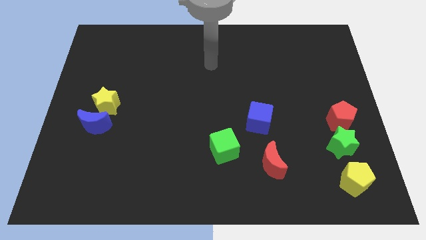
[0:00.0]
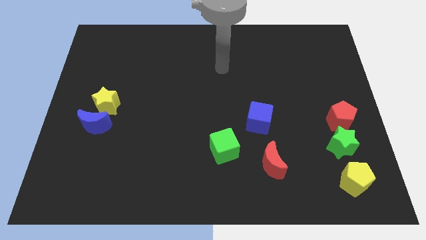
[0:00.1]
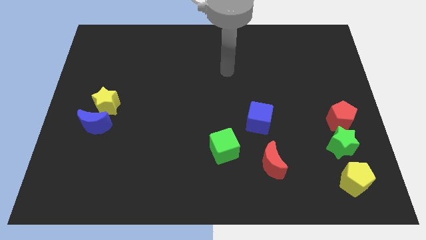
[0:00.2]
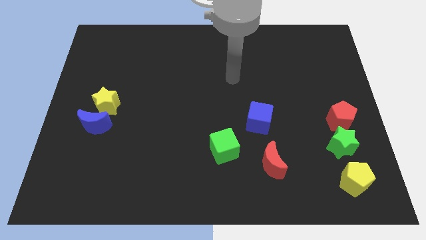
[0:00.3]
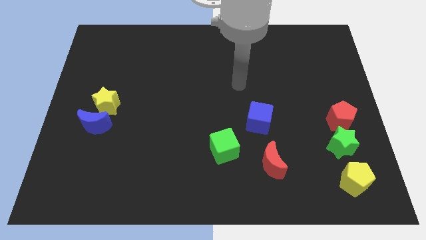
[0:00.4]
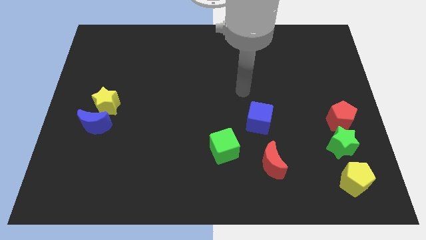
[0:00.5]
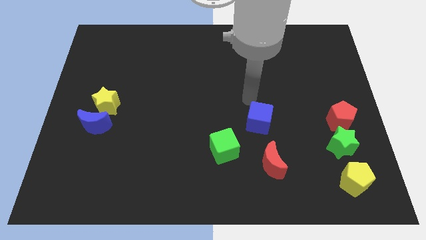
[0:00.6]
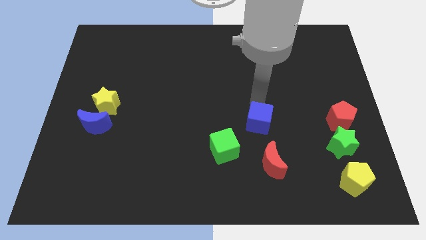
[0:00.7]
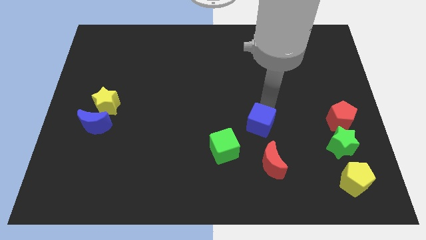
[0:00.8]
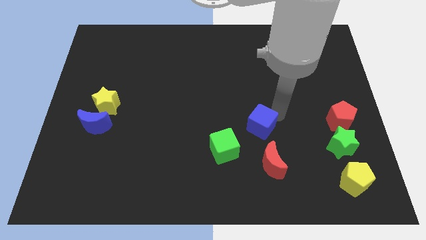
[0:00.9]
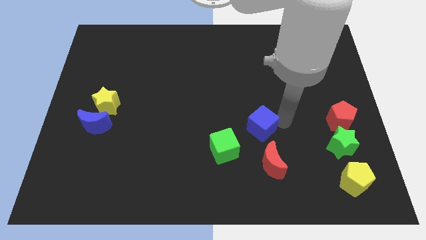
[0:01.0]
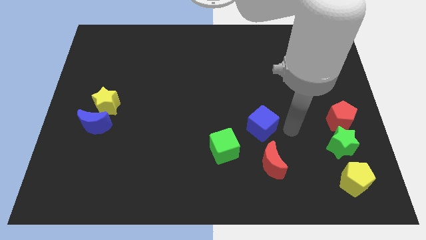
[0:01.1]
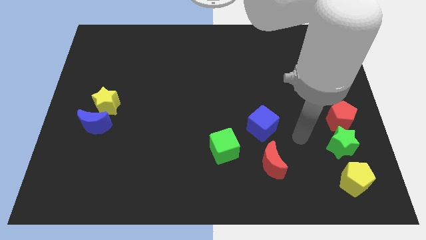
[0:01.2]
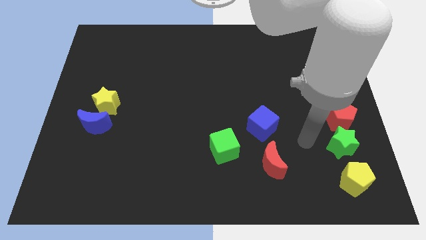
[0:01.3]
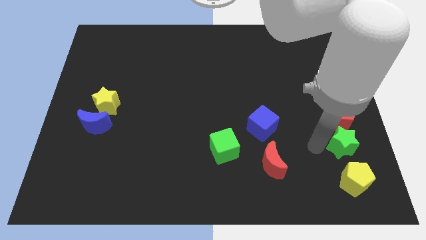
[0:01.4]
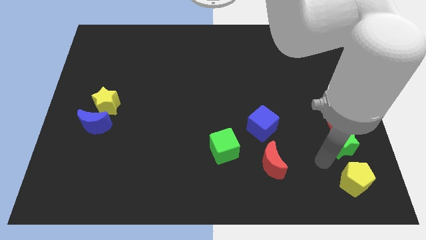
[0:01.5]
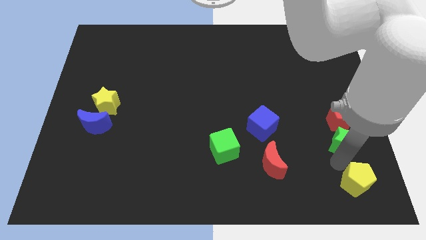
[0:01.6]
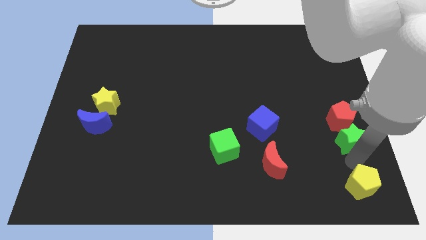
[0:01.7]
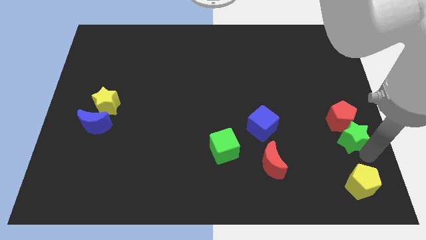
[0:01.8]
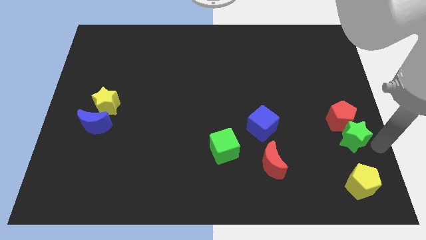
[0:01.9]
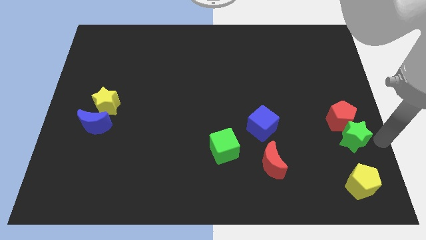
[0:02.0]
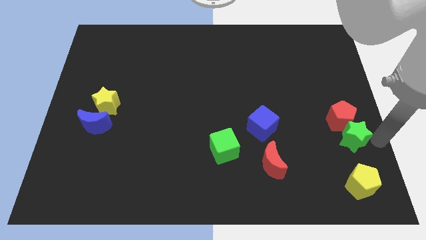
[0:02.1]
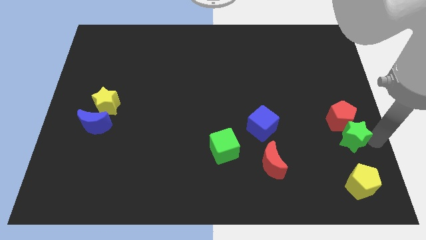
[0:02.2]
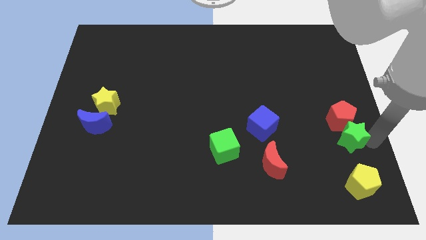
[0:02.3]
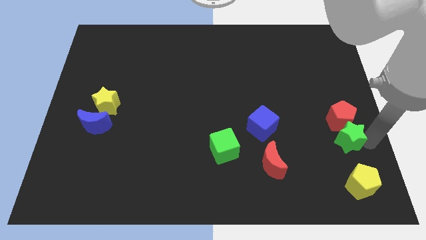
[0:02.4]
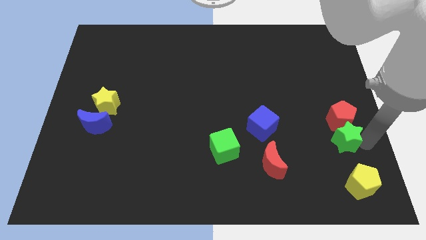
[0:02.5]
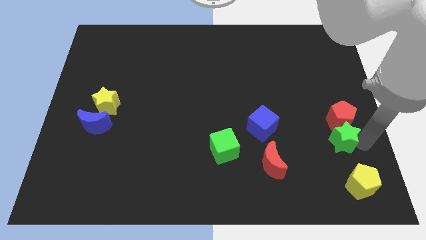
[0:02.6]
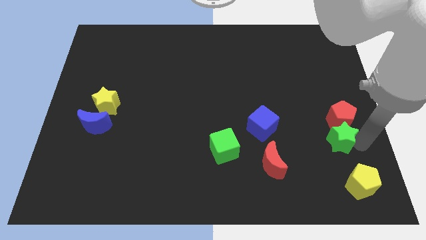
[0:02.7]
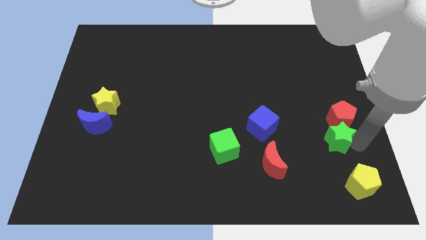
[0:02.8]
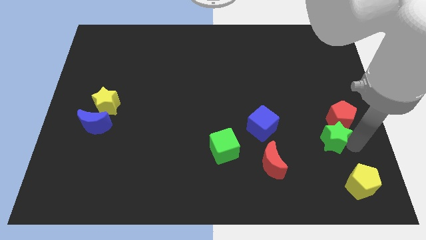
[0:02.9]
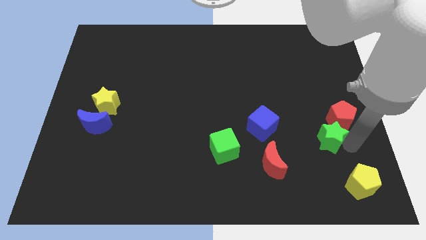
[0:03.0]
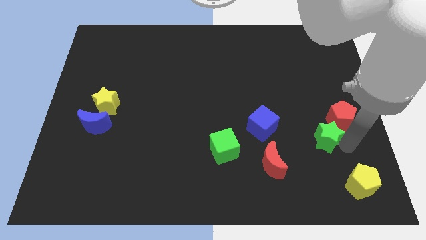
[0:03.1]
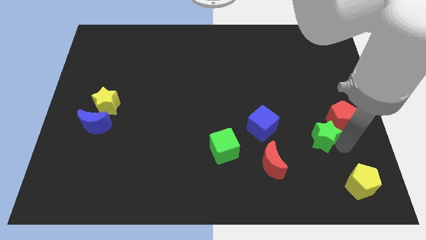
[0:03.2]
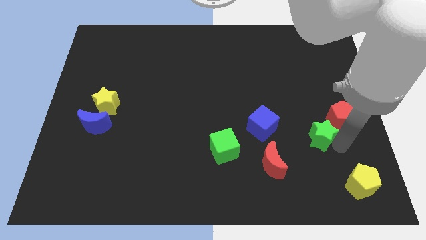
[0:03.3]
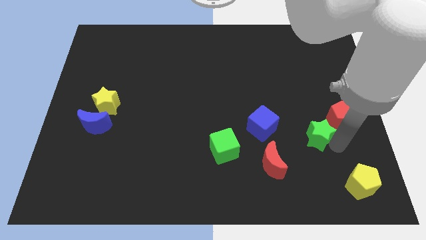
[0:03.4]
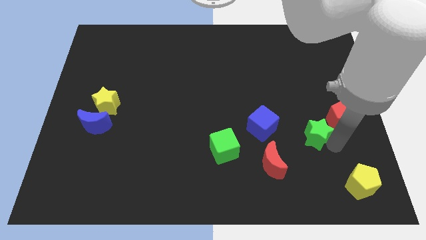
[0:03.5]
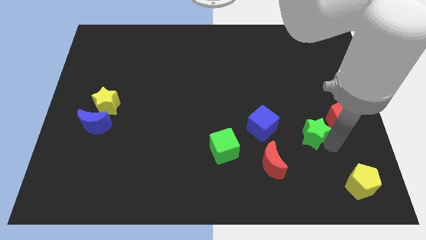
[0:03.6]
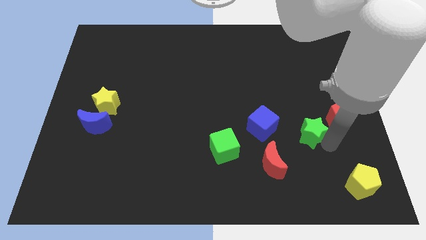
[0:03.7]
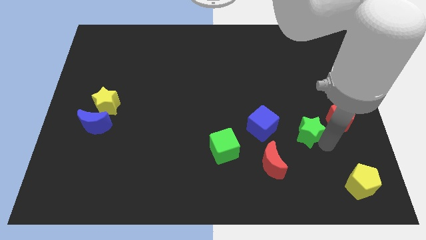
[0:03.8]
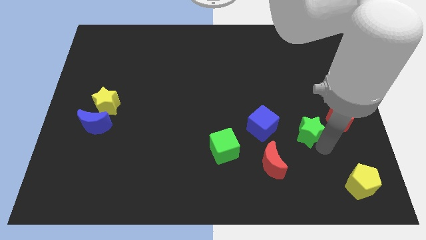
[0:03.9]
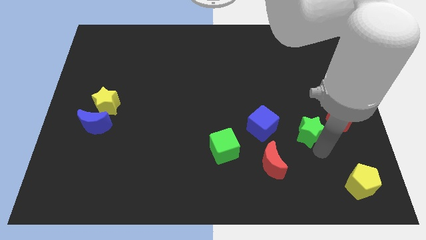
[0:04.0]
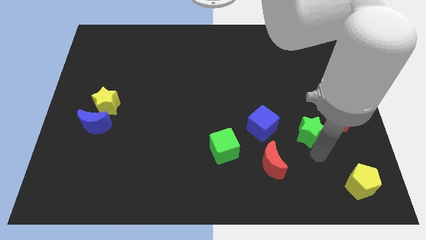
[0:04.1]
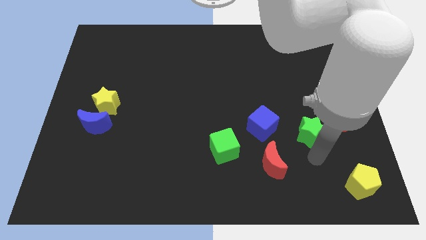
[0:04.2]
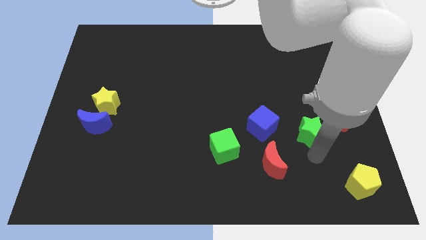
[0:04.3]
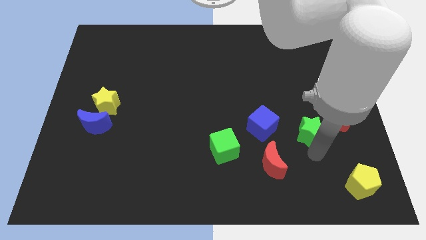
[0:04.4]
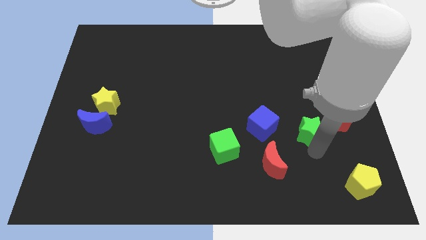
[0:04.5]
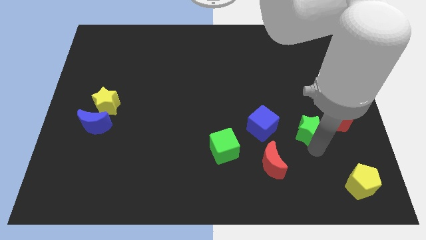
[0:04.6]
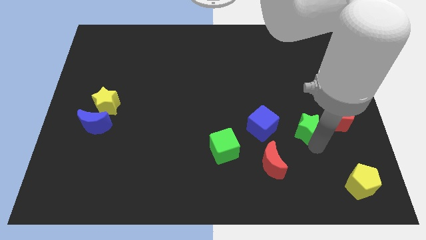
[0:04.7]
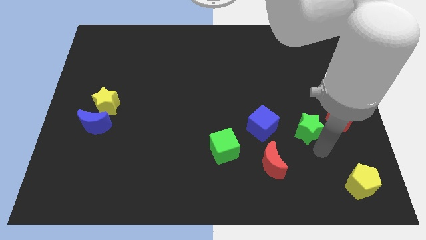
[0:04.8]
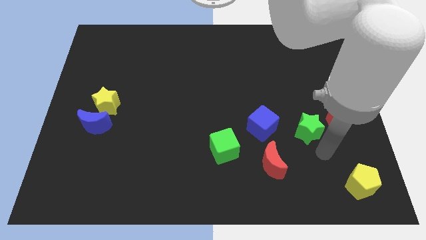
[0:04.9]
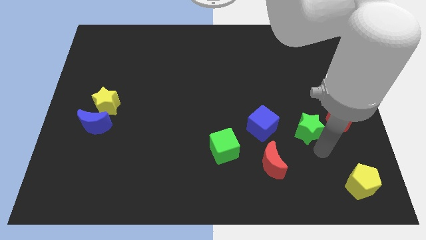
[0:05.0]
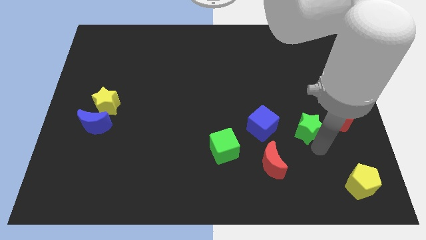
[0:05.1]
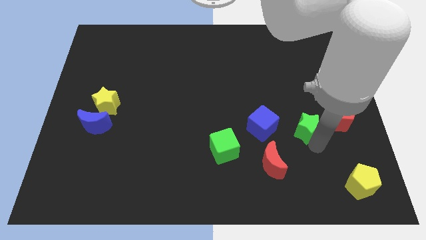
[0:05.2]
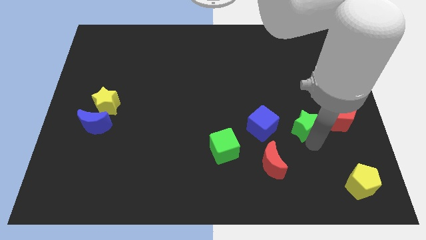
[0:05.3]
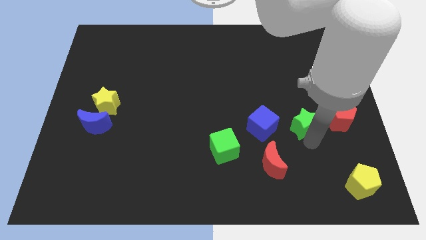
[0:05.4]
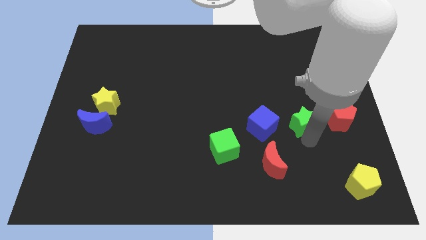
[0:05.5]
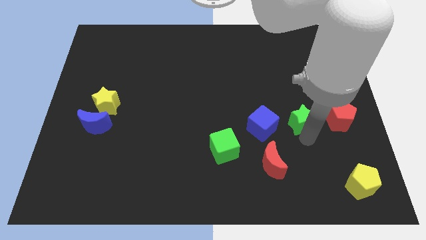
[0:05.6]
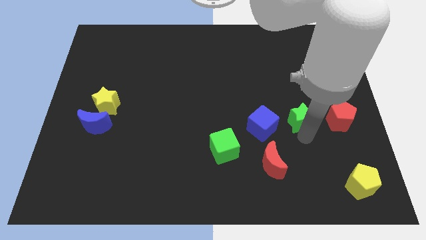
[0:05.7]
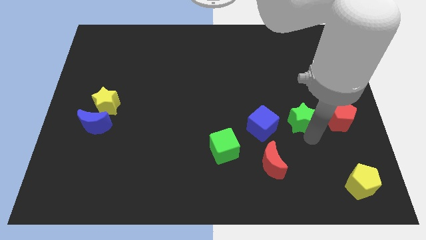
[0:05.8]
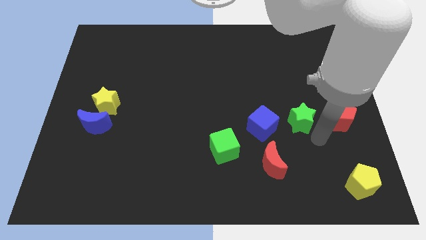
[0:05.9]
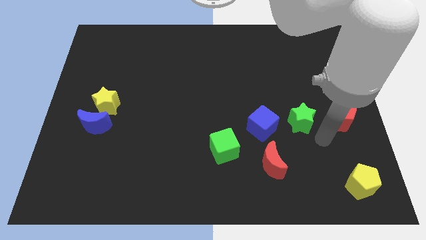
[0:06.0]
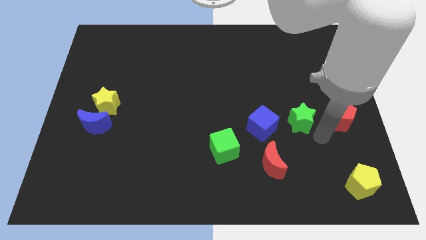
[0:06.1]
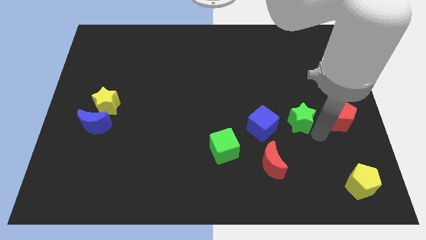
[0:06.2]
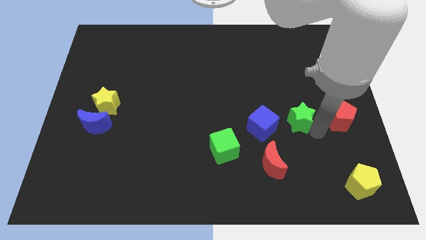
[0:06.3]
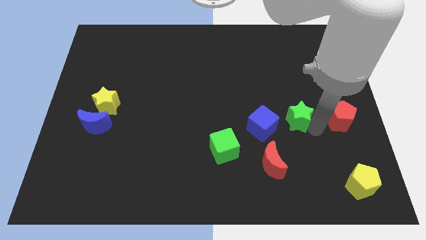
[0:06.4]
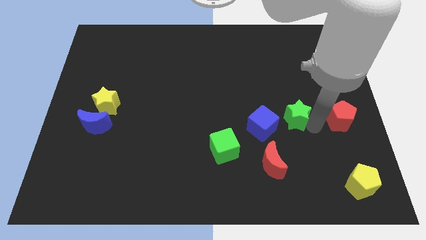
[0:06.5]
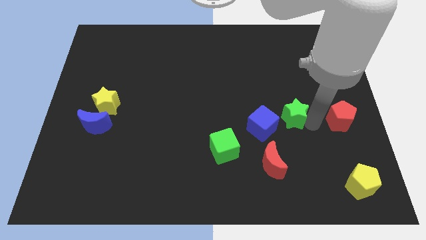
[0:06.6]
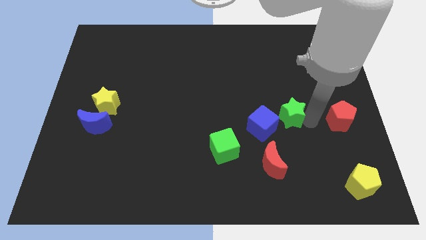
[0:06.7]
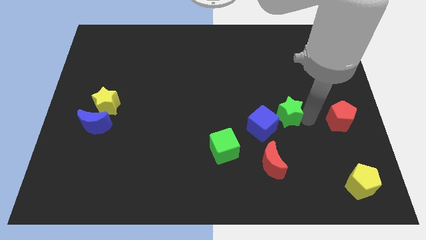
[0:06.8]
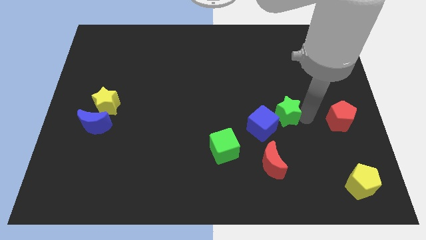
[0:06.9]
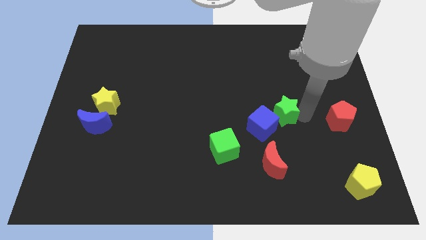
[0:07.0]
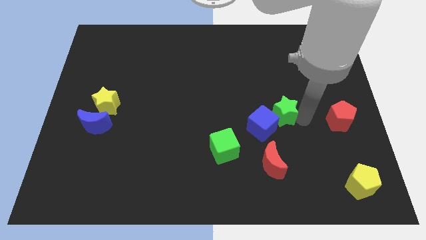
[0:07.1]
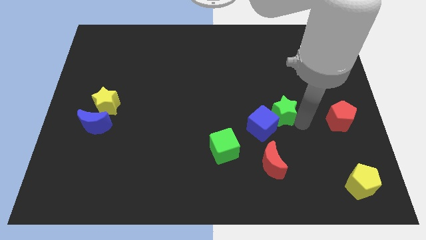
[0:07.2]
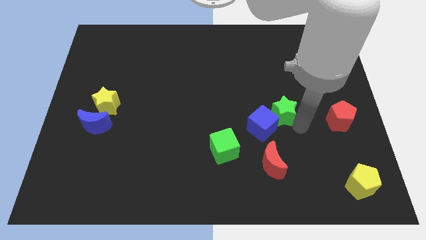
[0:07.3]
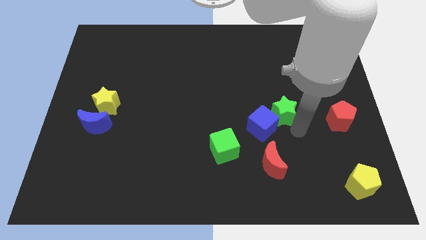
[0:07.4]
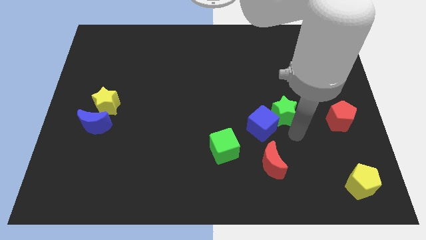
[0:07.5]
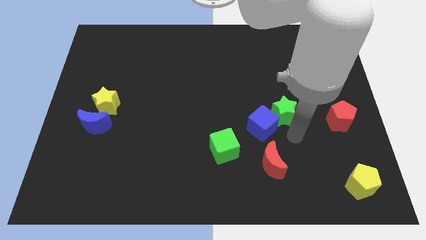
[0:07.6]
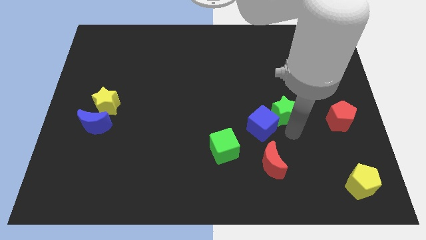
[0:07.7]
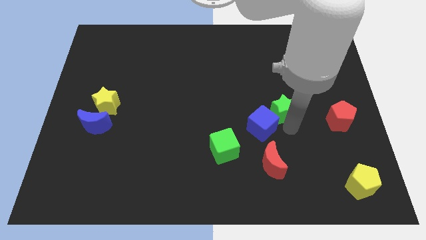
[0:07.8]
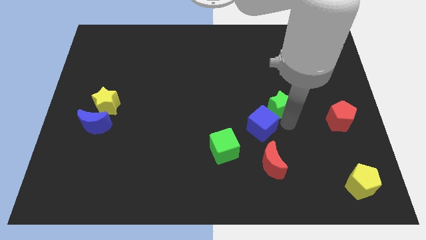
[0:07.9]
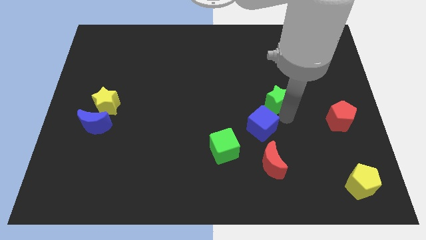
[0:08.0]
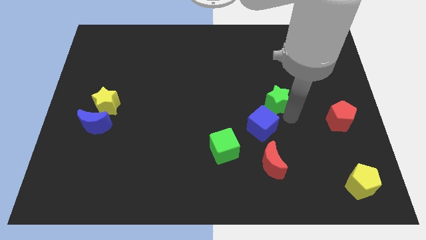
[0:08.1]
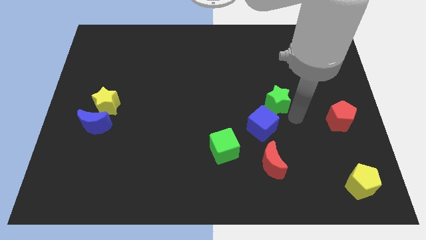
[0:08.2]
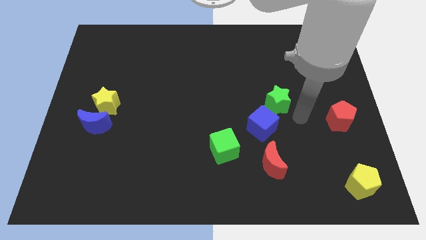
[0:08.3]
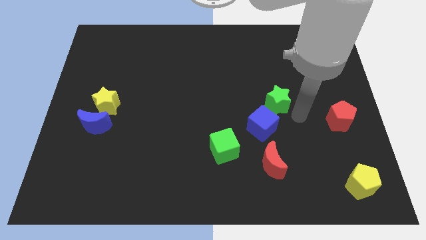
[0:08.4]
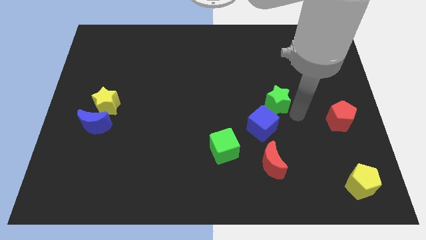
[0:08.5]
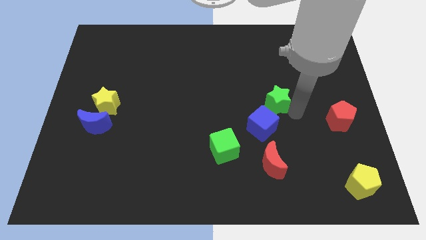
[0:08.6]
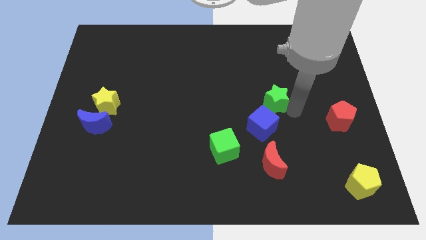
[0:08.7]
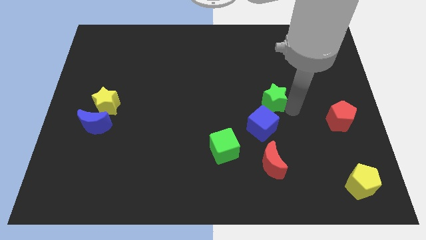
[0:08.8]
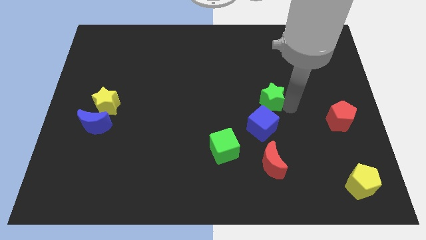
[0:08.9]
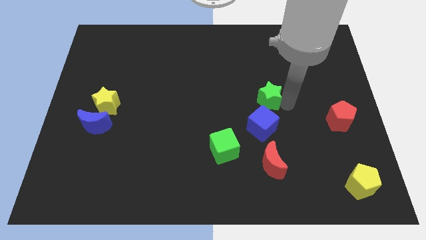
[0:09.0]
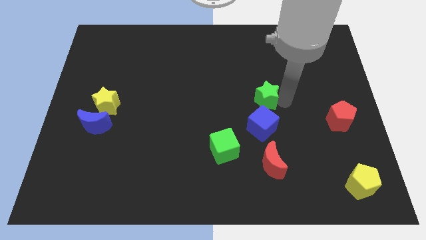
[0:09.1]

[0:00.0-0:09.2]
slide the green star upwards and to the left diagonally
